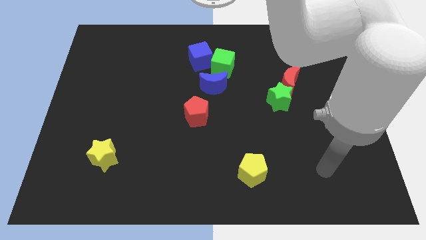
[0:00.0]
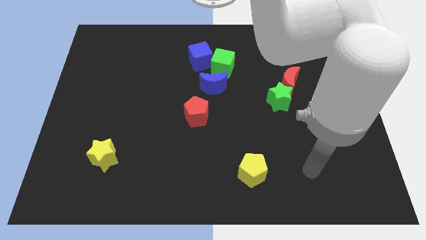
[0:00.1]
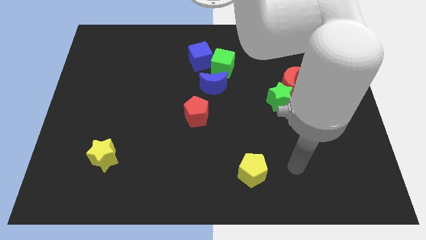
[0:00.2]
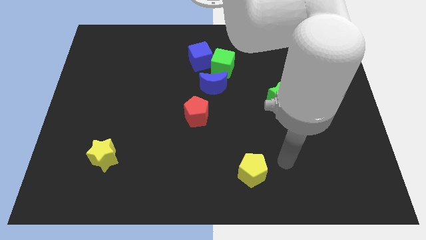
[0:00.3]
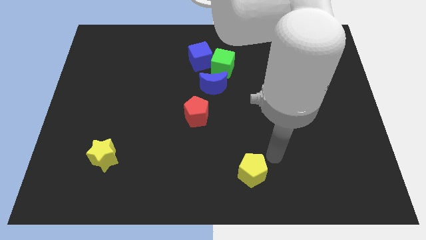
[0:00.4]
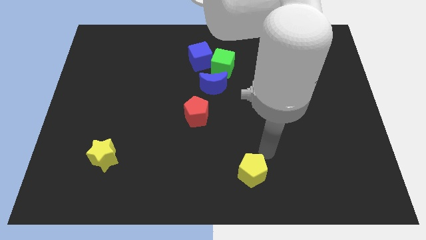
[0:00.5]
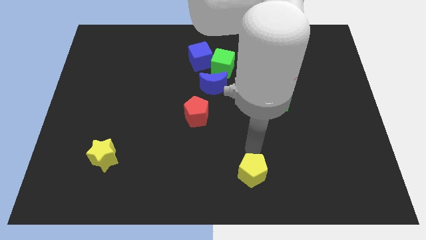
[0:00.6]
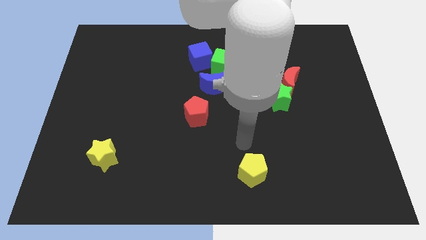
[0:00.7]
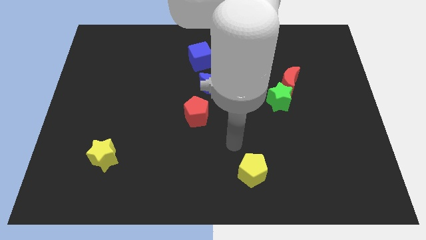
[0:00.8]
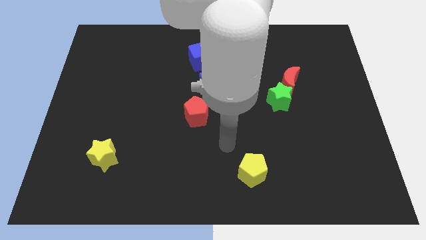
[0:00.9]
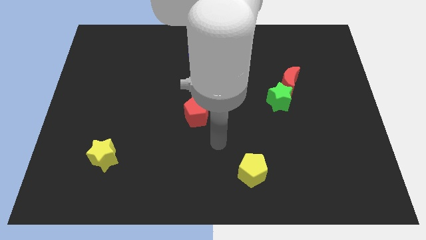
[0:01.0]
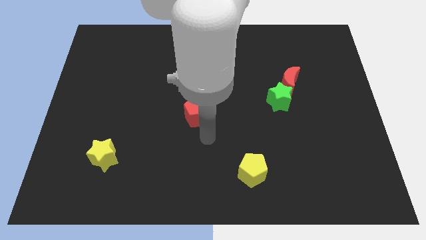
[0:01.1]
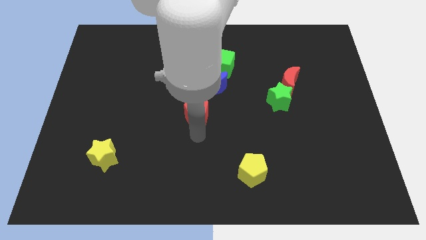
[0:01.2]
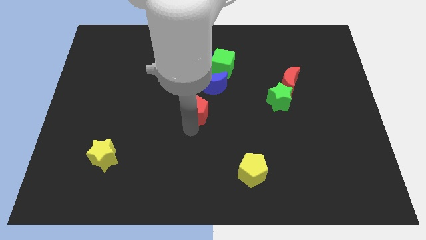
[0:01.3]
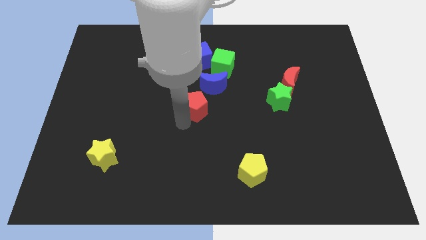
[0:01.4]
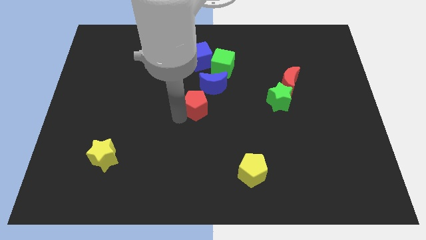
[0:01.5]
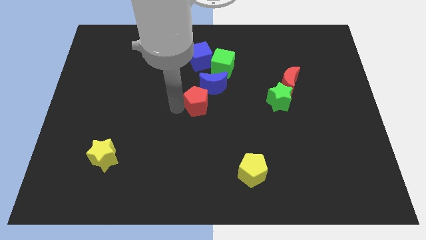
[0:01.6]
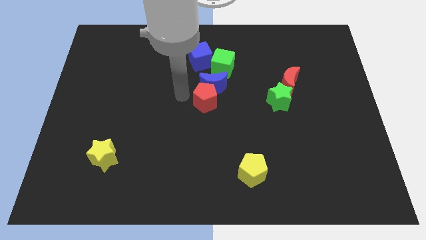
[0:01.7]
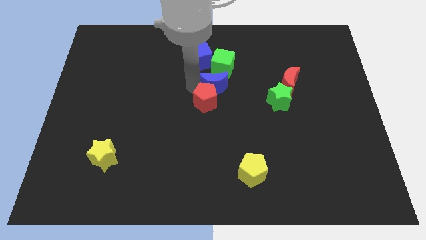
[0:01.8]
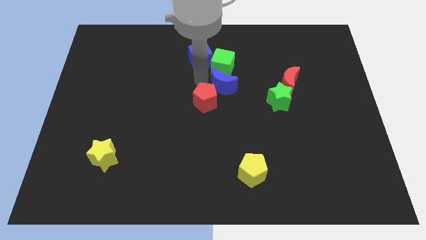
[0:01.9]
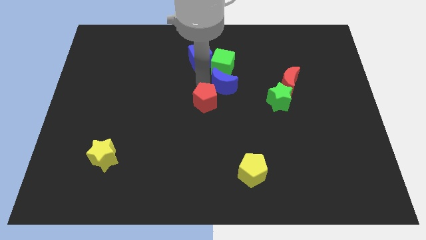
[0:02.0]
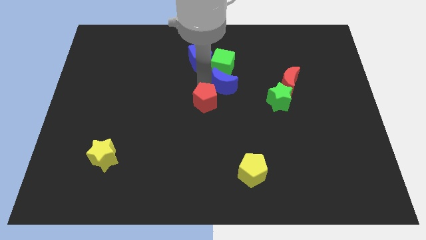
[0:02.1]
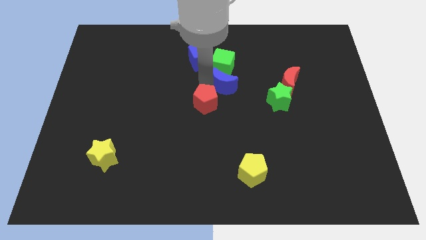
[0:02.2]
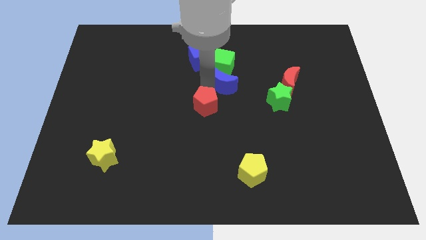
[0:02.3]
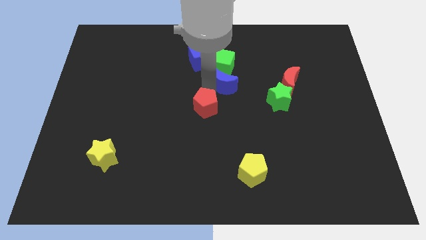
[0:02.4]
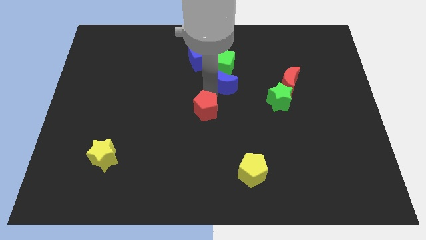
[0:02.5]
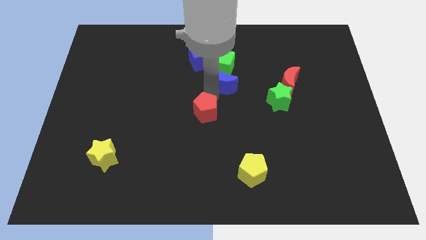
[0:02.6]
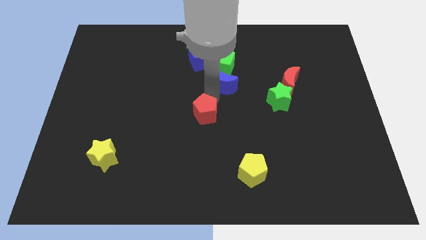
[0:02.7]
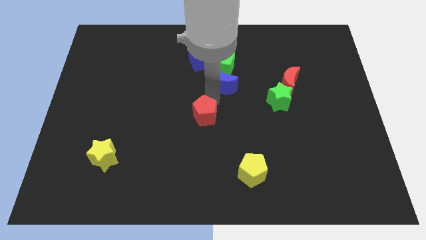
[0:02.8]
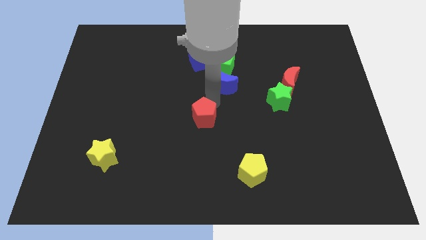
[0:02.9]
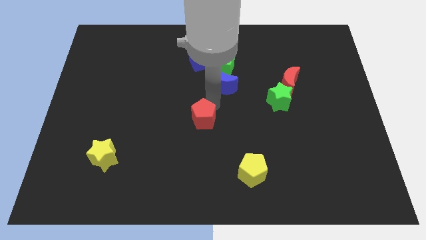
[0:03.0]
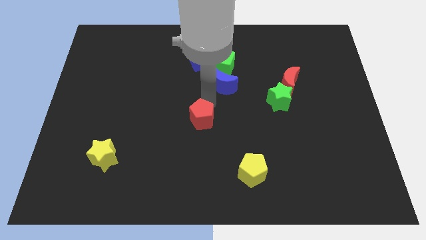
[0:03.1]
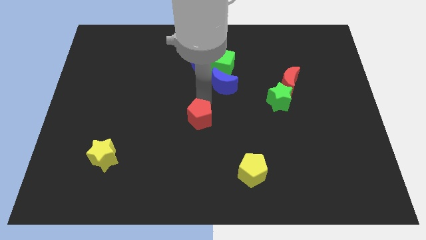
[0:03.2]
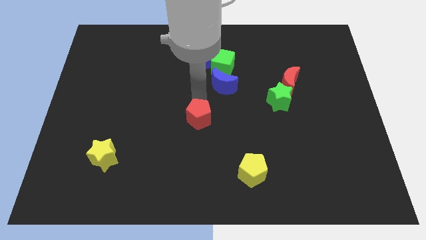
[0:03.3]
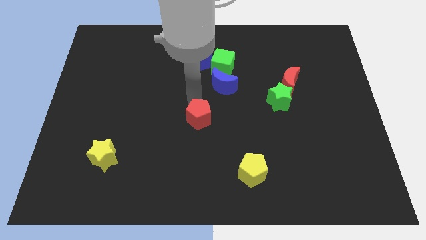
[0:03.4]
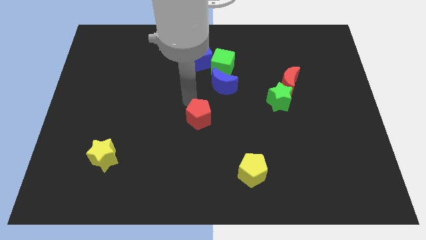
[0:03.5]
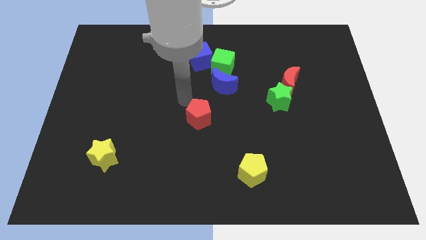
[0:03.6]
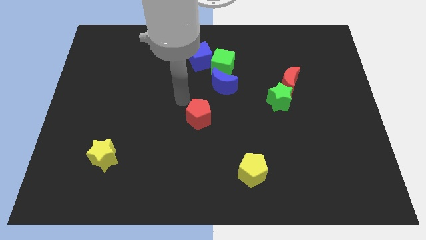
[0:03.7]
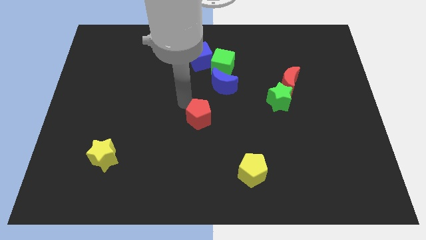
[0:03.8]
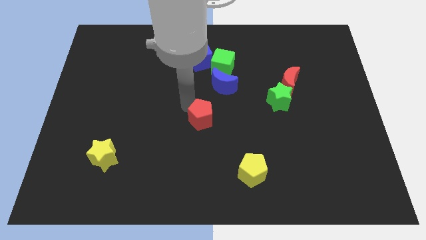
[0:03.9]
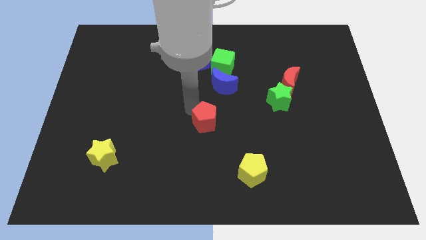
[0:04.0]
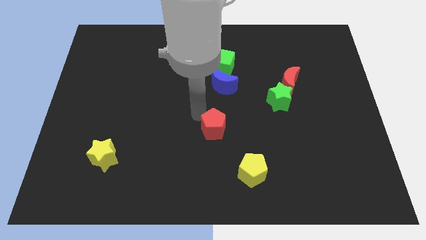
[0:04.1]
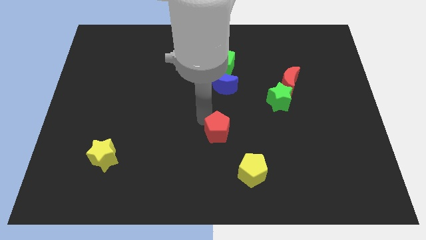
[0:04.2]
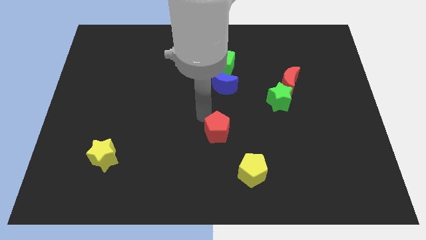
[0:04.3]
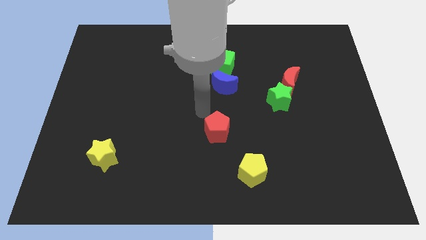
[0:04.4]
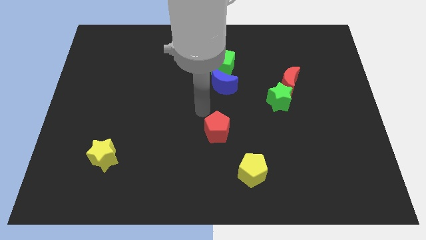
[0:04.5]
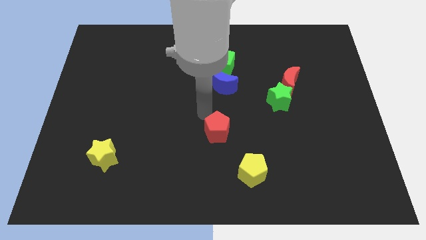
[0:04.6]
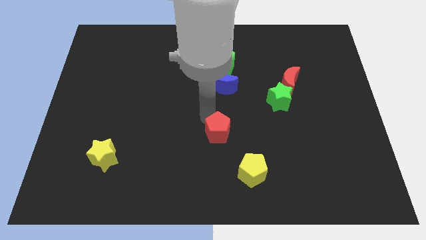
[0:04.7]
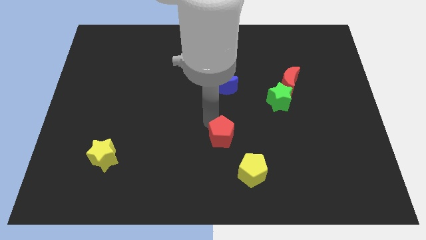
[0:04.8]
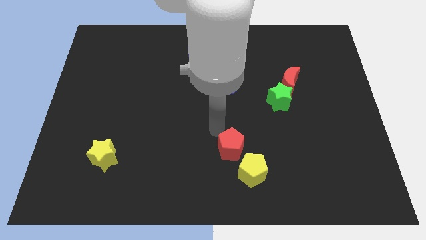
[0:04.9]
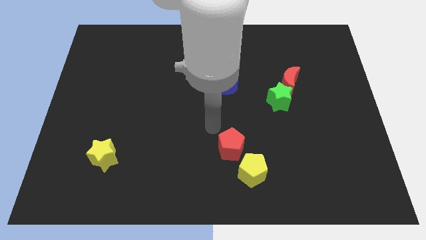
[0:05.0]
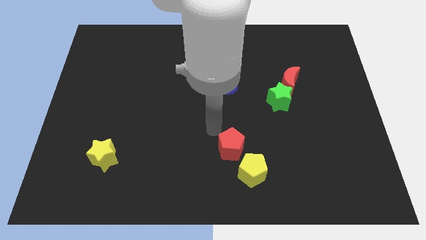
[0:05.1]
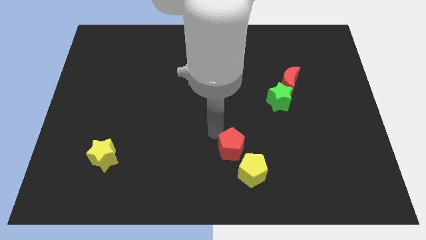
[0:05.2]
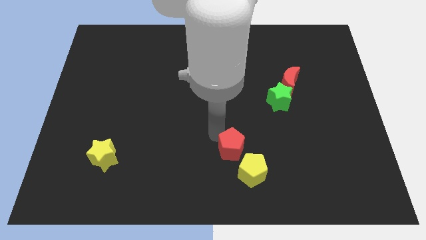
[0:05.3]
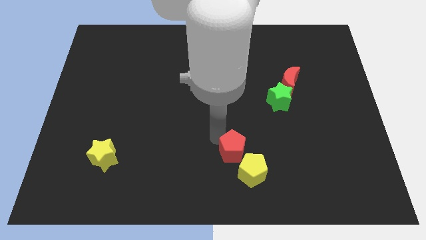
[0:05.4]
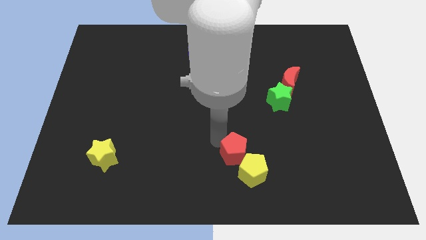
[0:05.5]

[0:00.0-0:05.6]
move the red pentagon close to the yellow pentagon

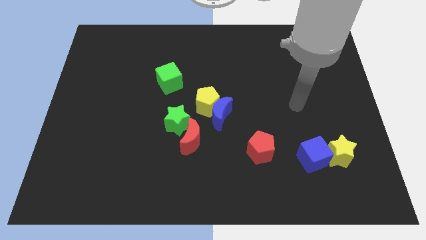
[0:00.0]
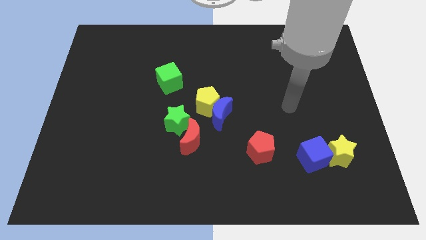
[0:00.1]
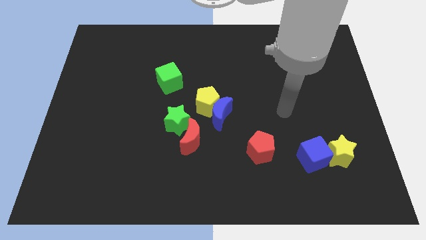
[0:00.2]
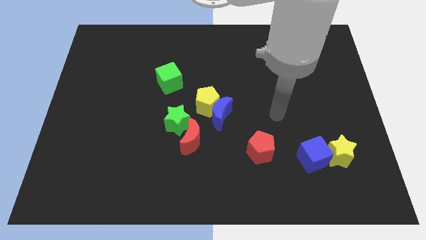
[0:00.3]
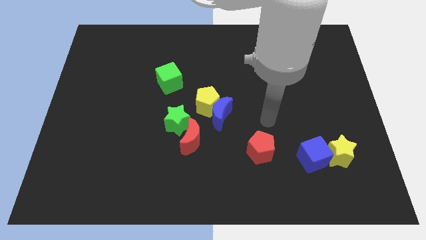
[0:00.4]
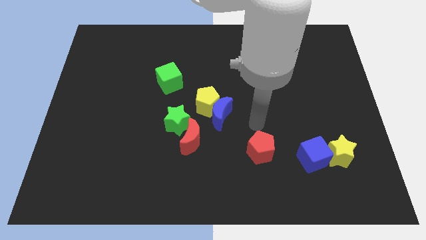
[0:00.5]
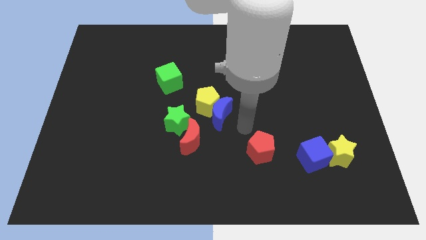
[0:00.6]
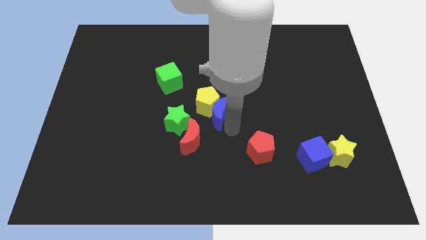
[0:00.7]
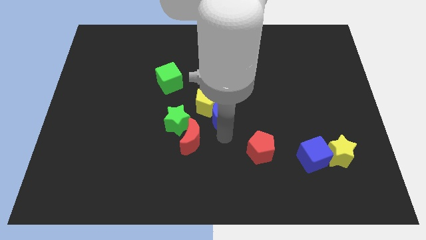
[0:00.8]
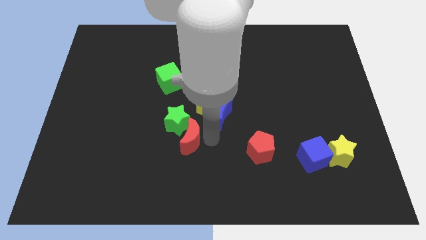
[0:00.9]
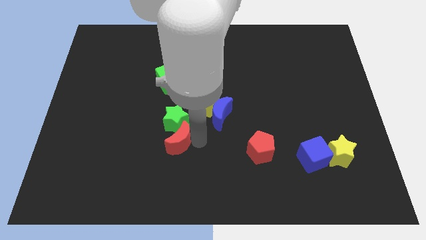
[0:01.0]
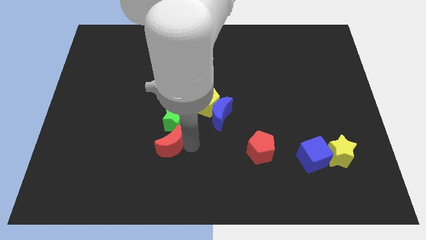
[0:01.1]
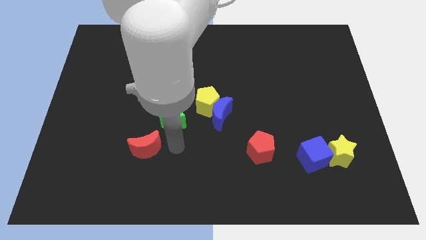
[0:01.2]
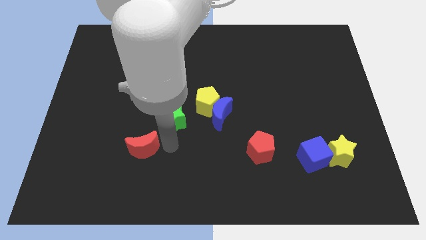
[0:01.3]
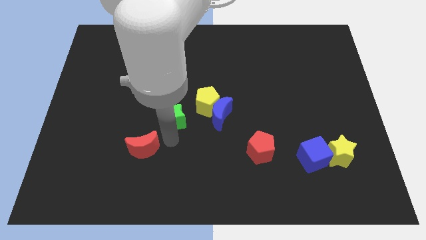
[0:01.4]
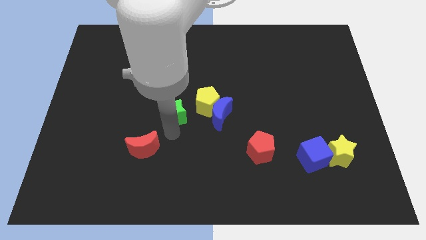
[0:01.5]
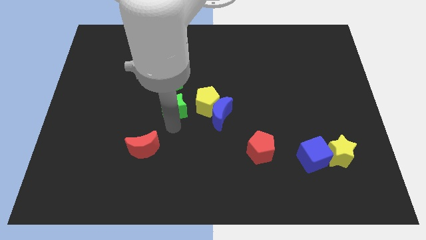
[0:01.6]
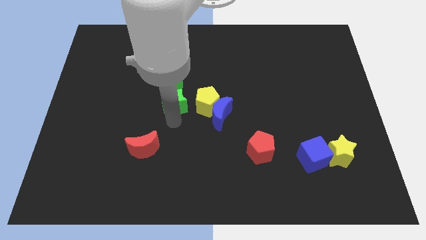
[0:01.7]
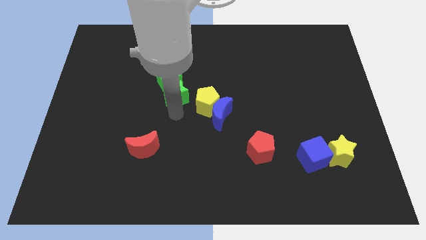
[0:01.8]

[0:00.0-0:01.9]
put the green star towards the green cube
